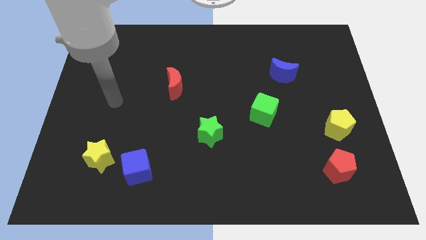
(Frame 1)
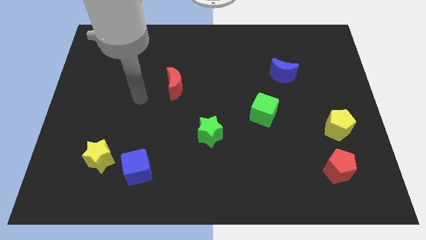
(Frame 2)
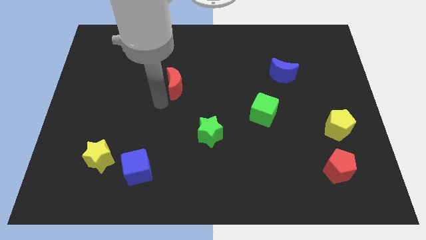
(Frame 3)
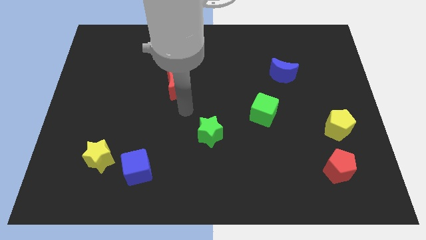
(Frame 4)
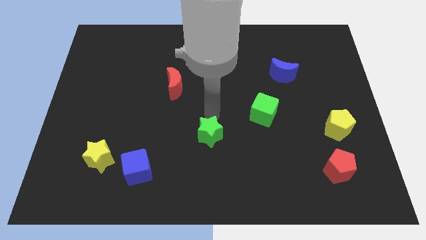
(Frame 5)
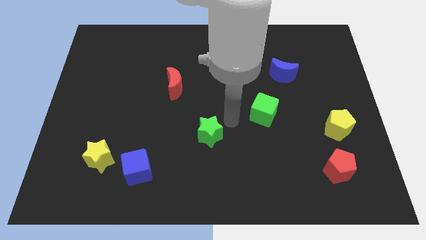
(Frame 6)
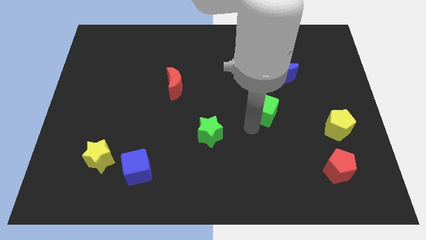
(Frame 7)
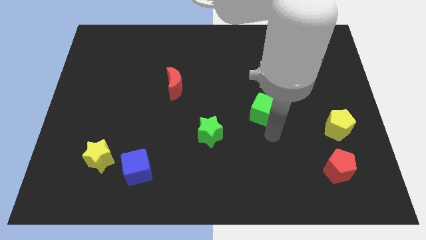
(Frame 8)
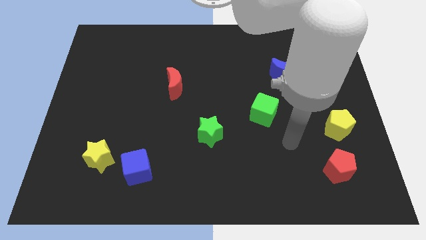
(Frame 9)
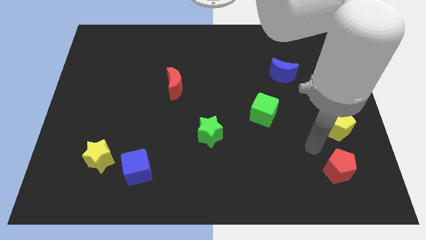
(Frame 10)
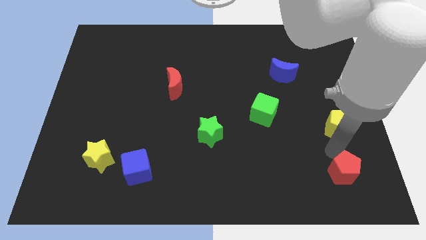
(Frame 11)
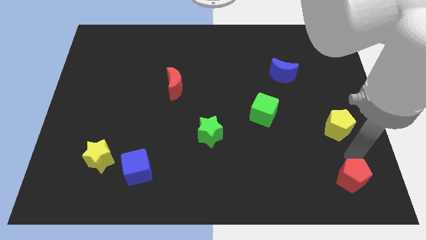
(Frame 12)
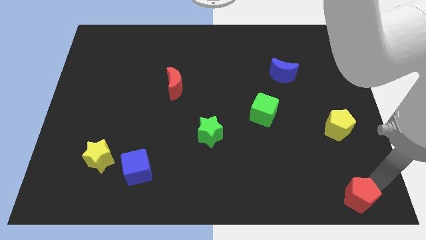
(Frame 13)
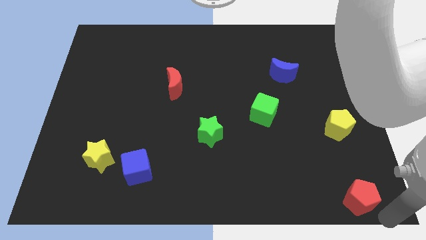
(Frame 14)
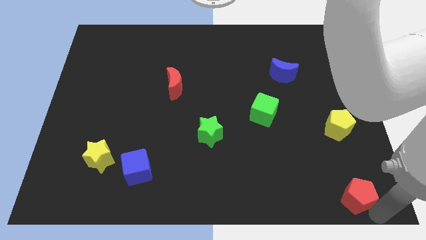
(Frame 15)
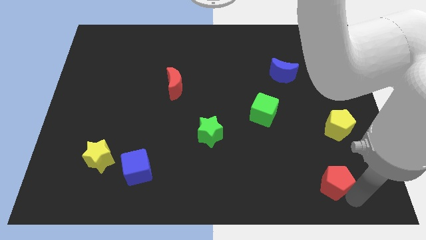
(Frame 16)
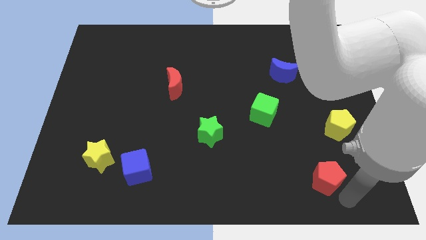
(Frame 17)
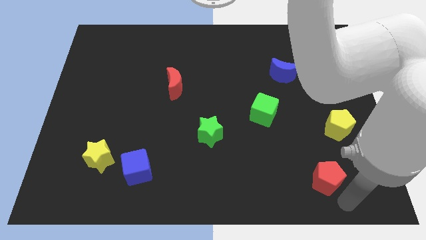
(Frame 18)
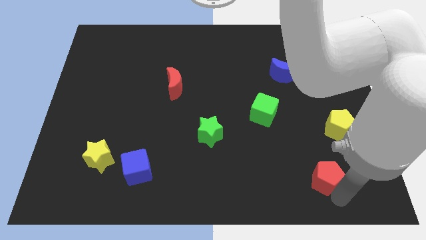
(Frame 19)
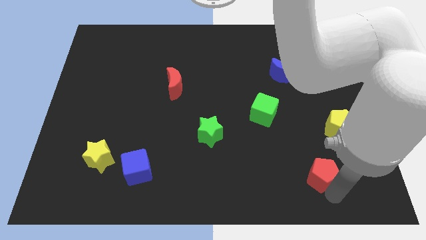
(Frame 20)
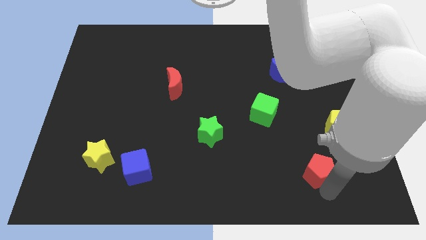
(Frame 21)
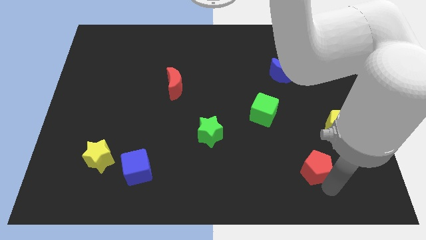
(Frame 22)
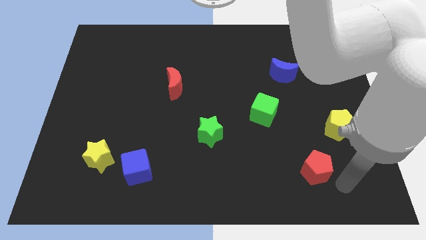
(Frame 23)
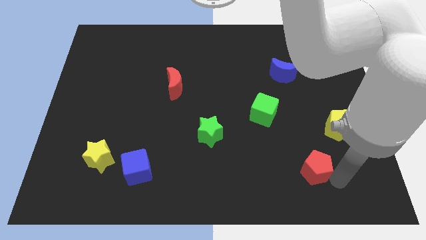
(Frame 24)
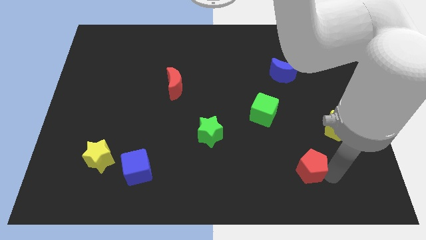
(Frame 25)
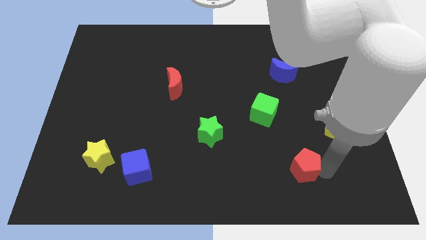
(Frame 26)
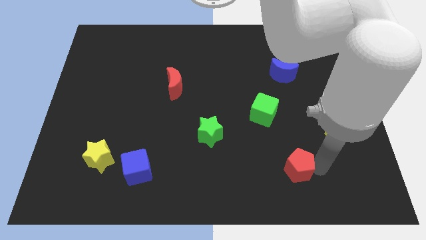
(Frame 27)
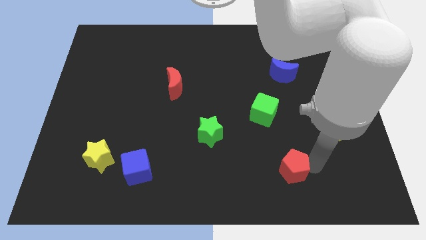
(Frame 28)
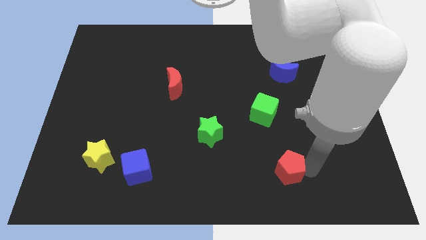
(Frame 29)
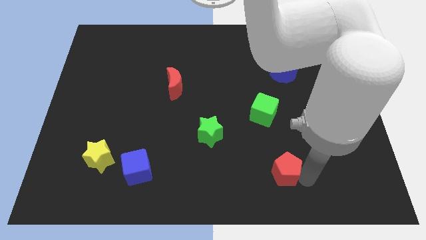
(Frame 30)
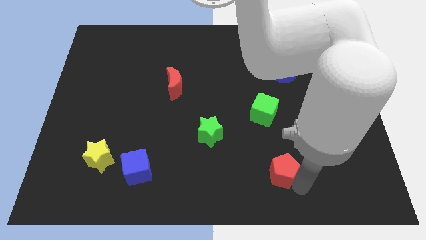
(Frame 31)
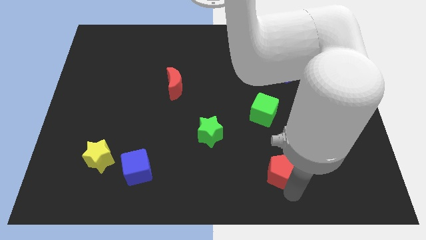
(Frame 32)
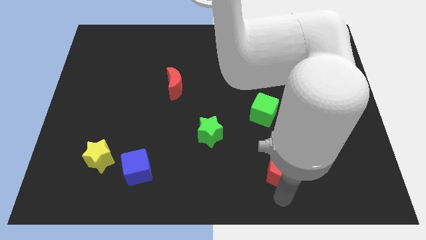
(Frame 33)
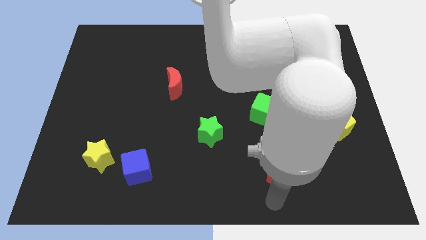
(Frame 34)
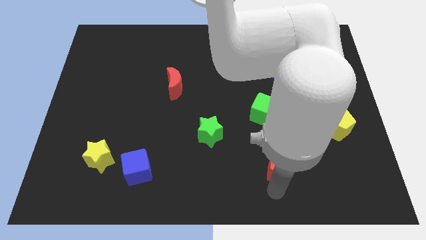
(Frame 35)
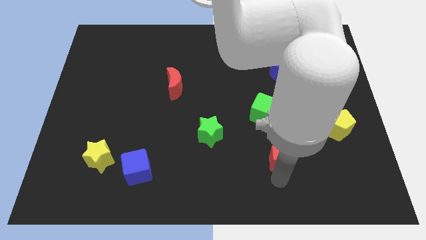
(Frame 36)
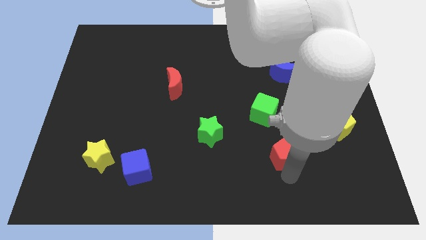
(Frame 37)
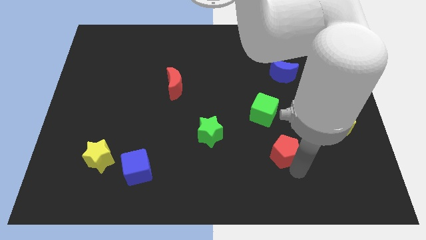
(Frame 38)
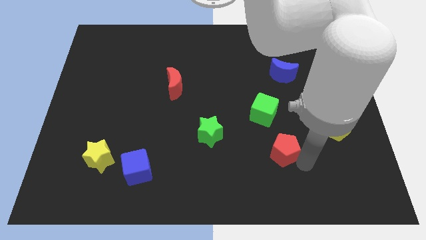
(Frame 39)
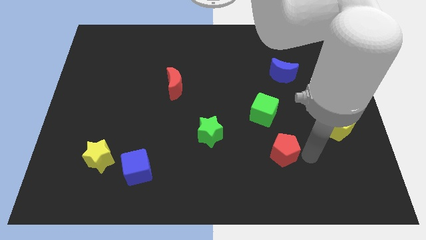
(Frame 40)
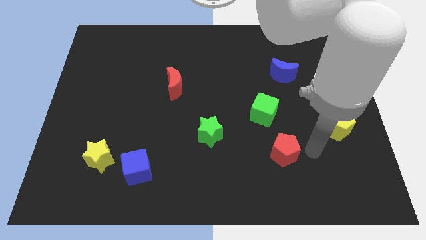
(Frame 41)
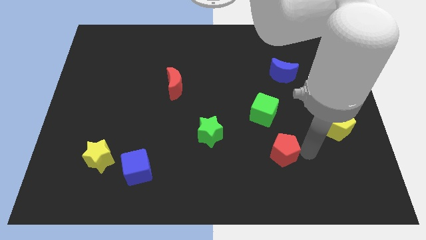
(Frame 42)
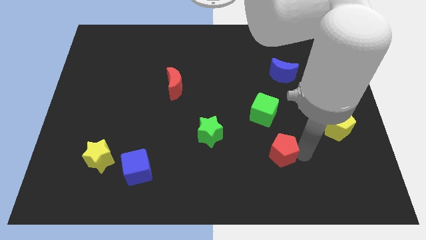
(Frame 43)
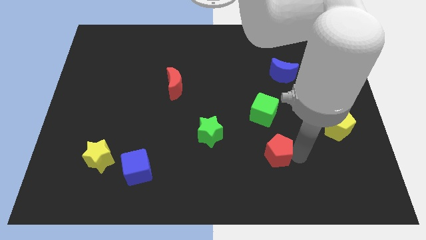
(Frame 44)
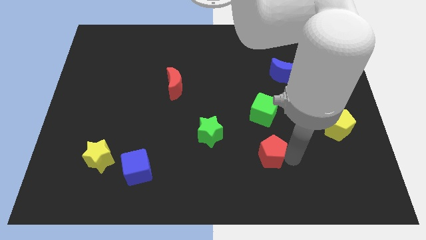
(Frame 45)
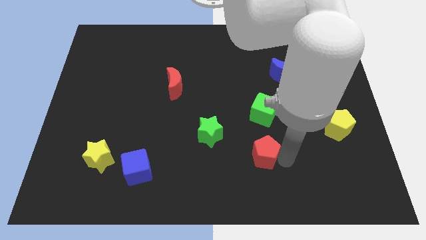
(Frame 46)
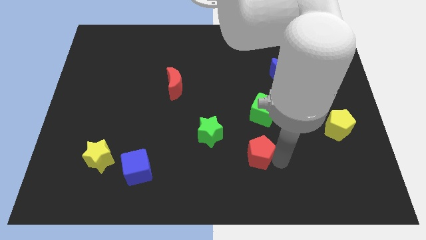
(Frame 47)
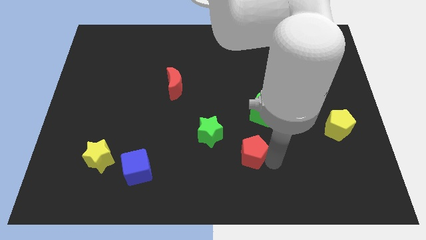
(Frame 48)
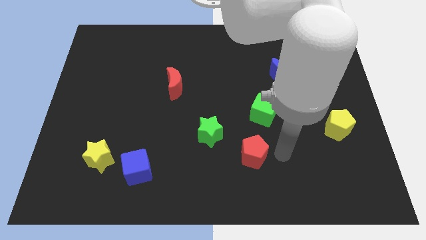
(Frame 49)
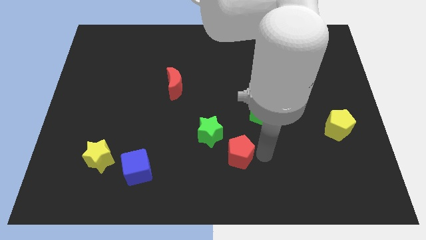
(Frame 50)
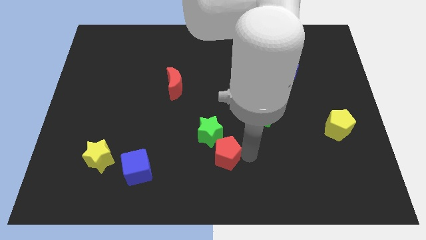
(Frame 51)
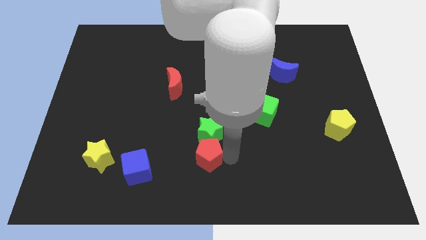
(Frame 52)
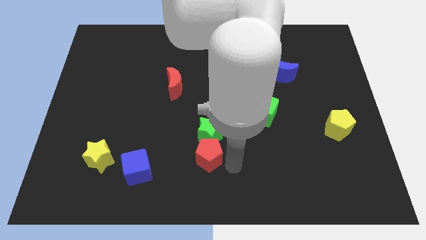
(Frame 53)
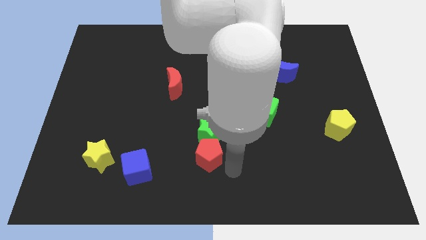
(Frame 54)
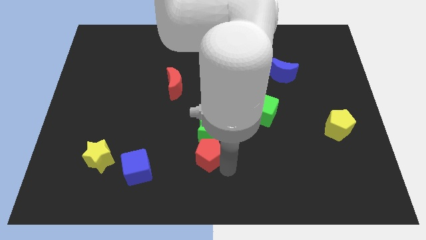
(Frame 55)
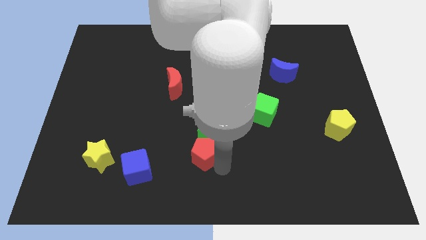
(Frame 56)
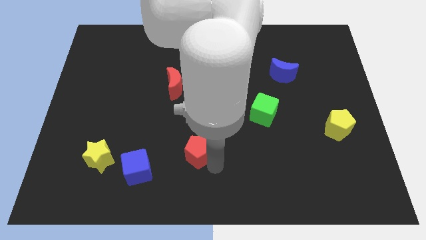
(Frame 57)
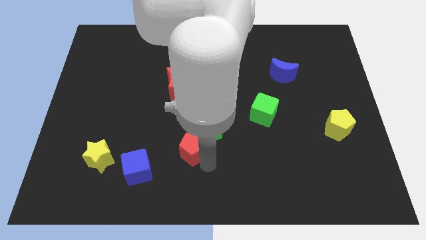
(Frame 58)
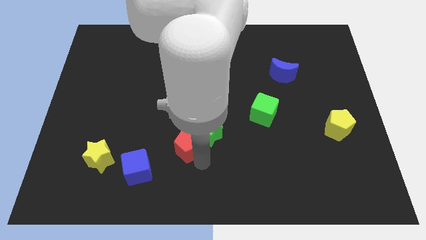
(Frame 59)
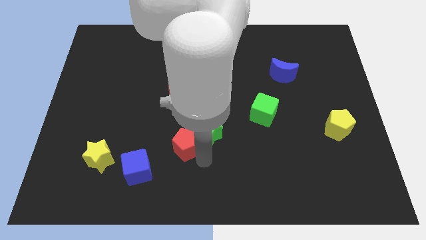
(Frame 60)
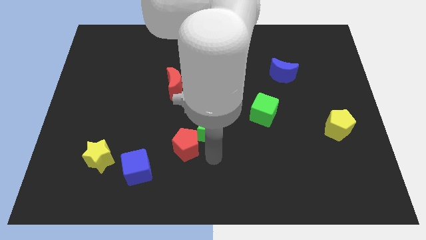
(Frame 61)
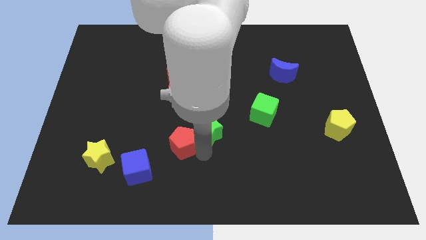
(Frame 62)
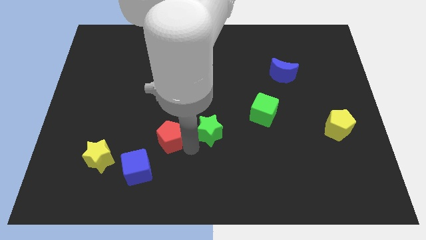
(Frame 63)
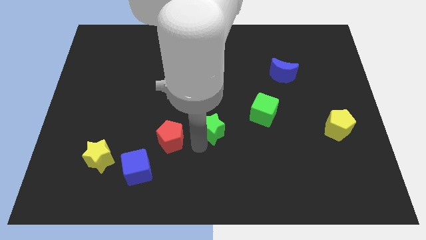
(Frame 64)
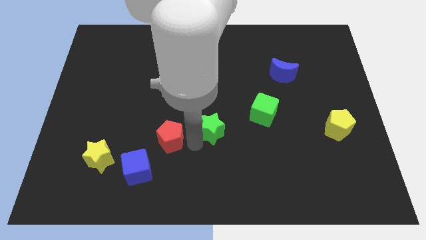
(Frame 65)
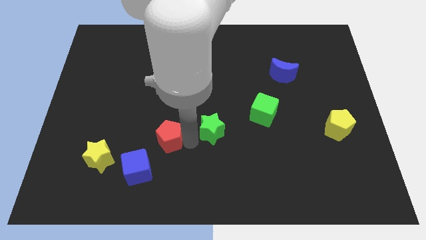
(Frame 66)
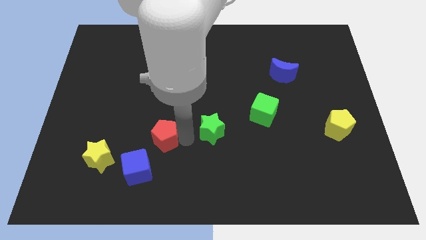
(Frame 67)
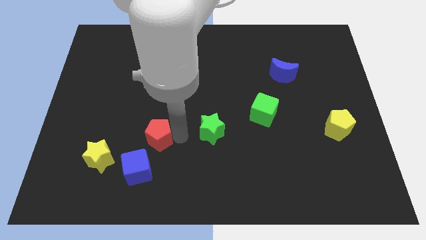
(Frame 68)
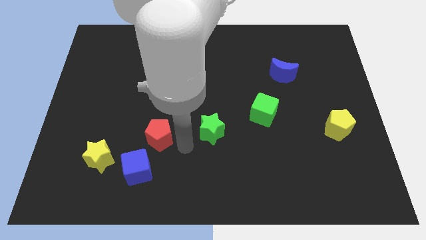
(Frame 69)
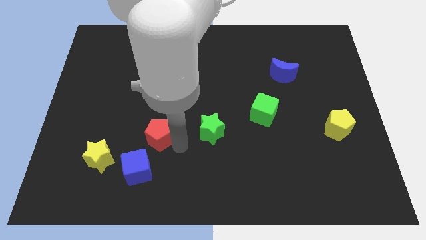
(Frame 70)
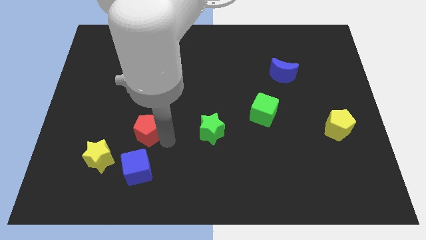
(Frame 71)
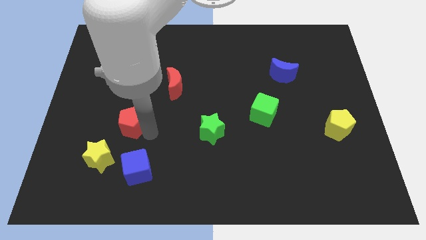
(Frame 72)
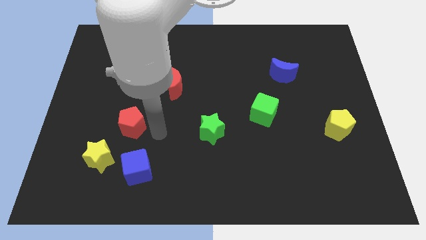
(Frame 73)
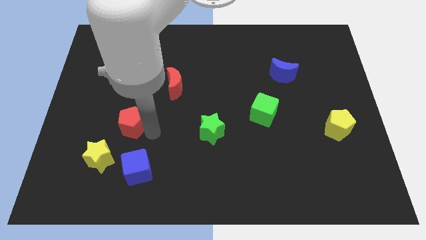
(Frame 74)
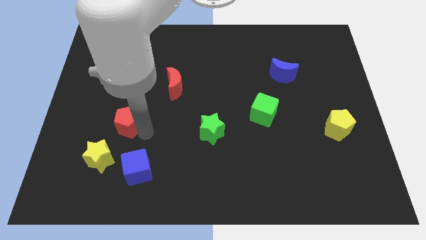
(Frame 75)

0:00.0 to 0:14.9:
put the red pentagon to the top side of the yellow star

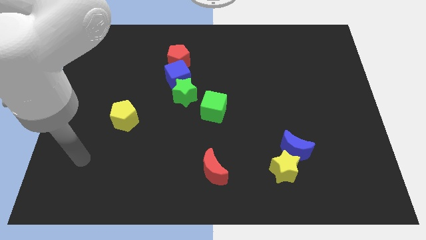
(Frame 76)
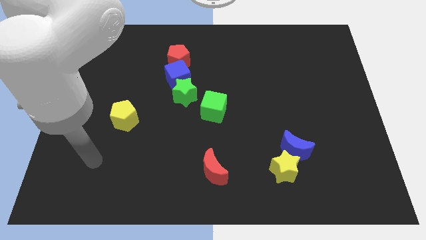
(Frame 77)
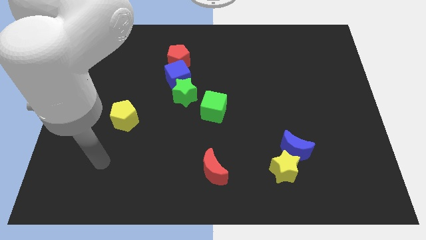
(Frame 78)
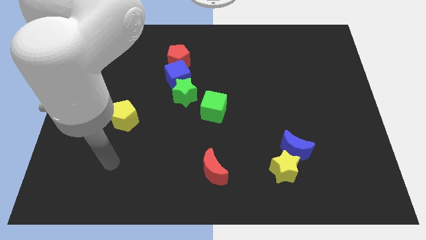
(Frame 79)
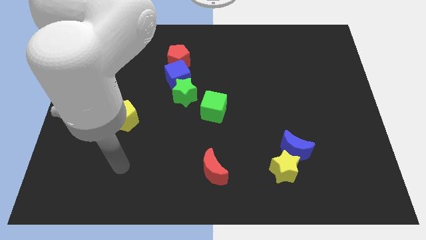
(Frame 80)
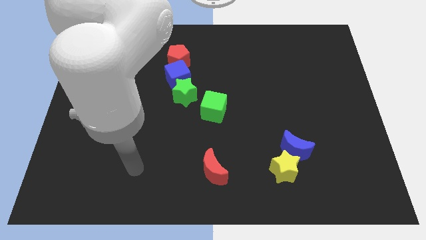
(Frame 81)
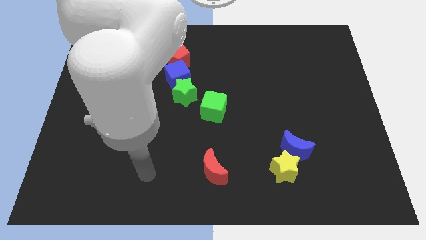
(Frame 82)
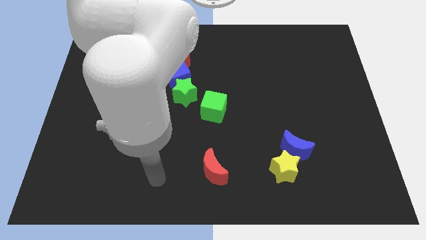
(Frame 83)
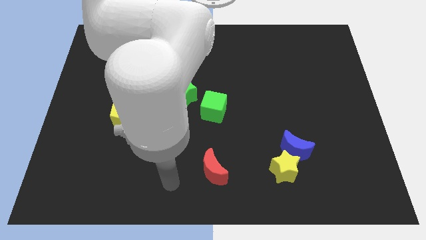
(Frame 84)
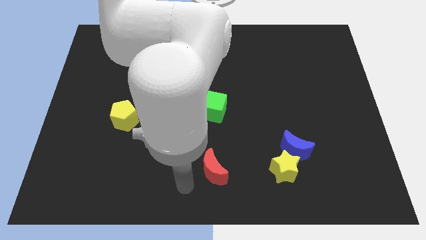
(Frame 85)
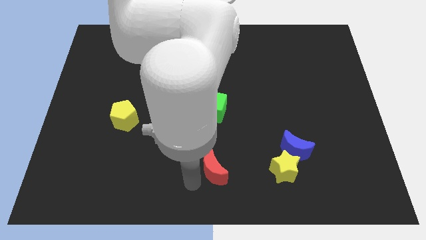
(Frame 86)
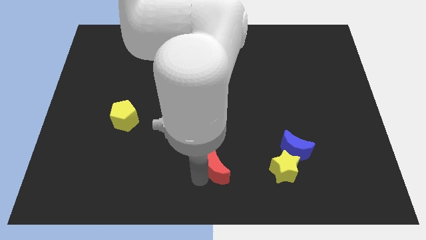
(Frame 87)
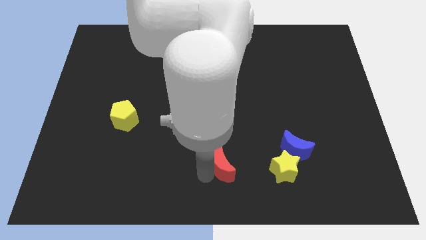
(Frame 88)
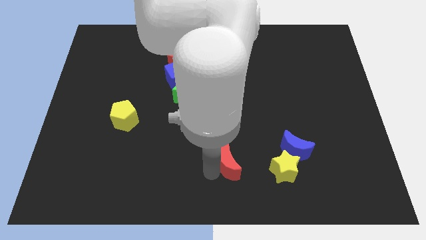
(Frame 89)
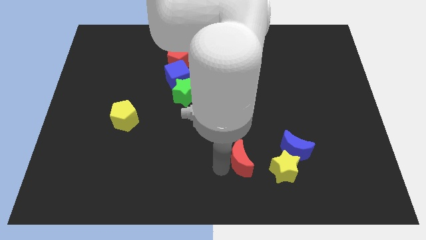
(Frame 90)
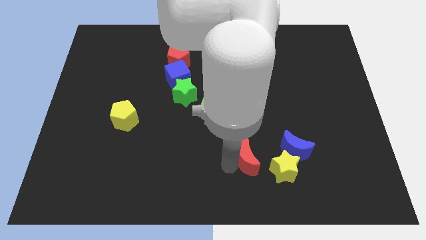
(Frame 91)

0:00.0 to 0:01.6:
move the red moon to the top left side of the yellow star
